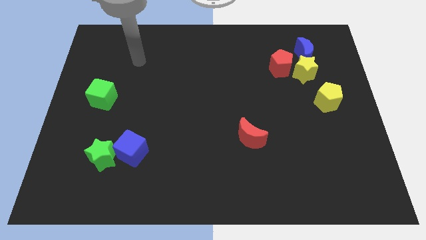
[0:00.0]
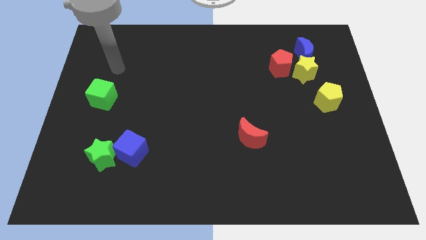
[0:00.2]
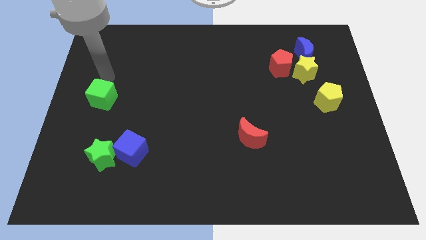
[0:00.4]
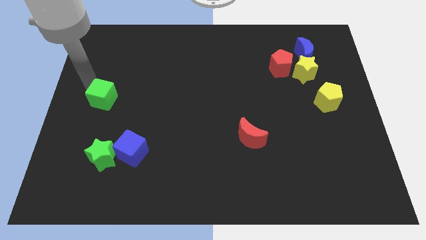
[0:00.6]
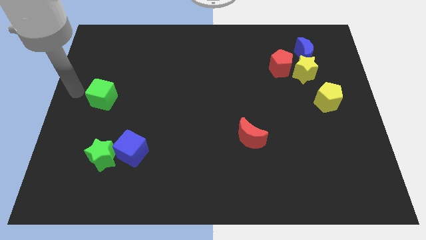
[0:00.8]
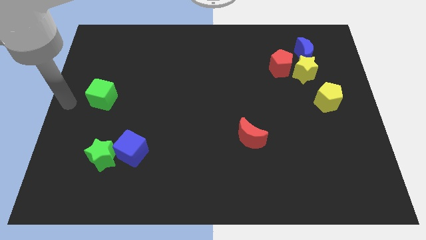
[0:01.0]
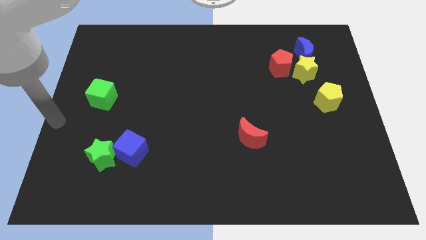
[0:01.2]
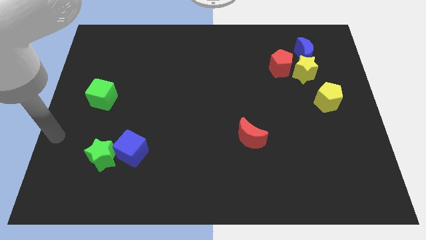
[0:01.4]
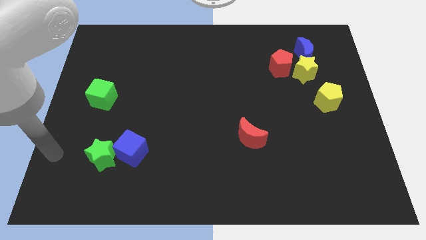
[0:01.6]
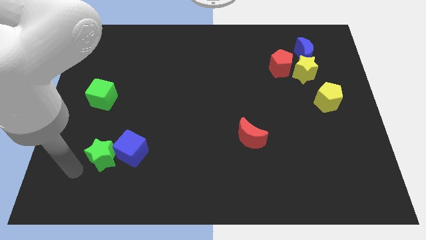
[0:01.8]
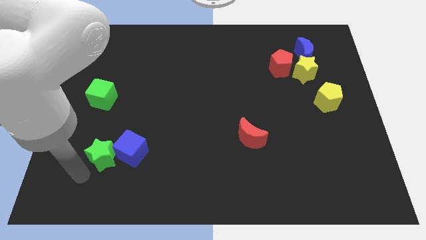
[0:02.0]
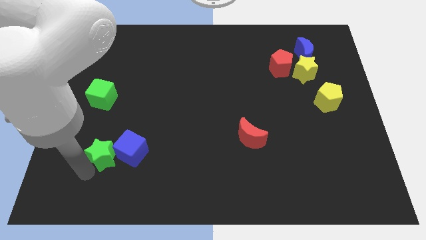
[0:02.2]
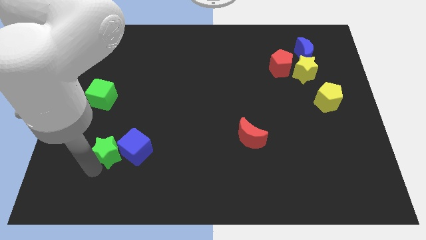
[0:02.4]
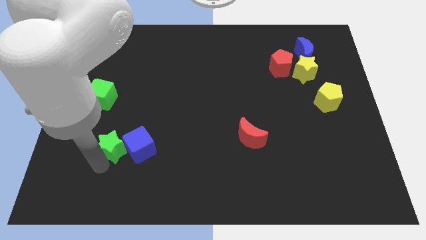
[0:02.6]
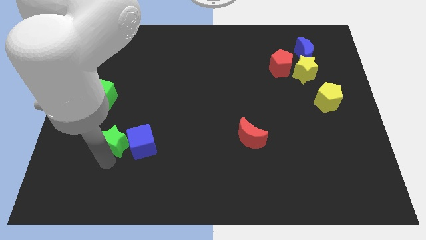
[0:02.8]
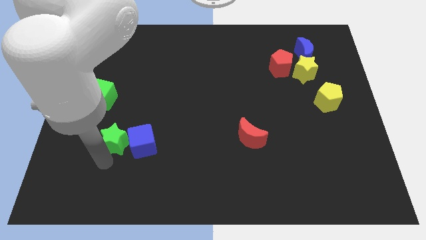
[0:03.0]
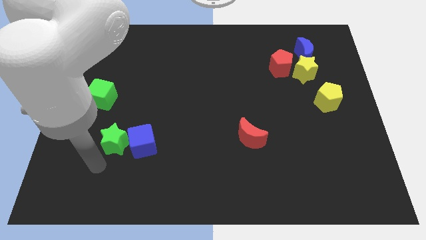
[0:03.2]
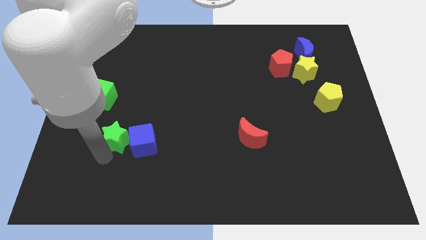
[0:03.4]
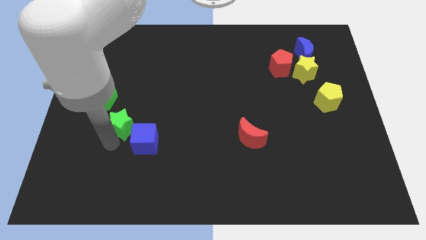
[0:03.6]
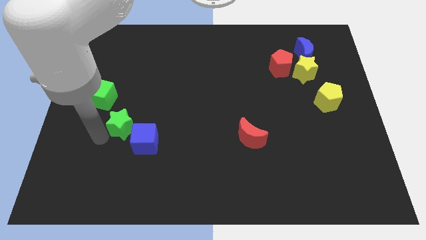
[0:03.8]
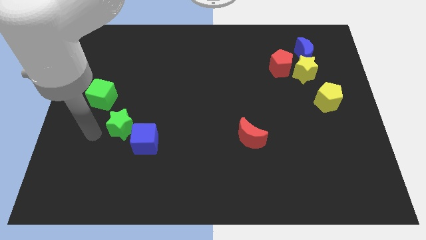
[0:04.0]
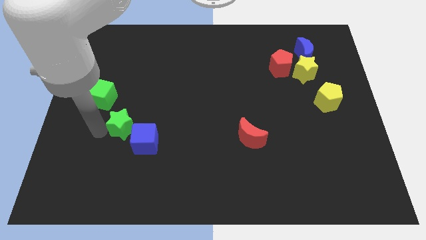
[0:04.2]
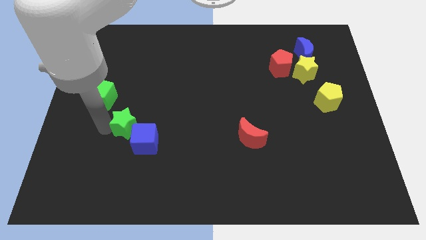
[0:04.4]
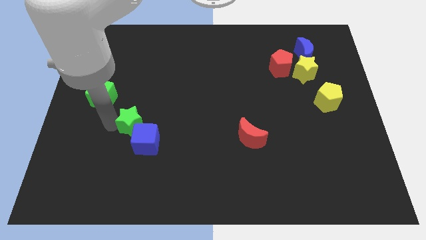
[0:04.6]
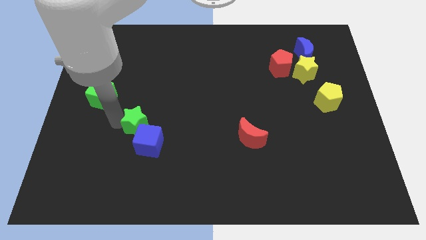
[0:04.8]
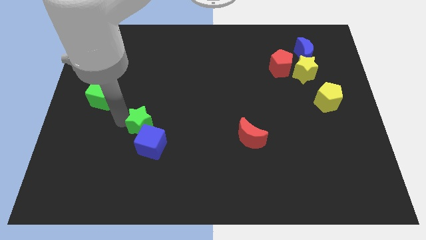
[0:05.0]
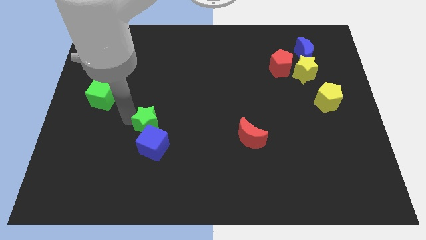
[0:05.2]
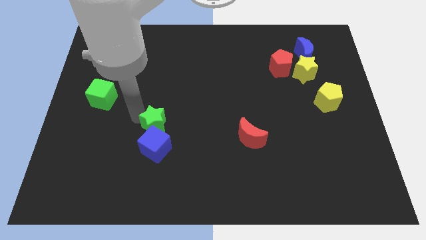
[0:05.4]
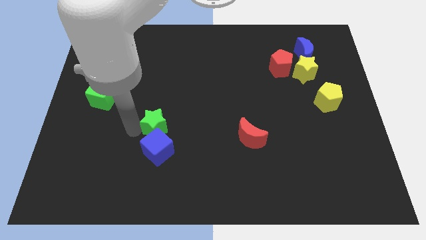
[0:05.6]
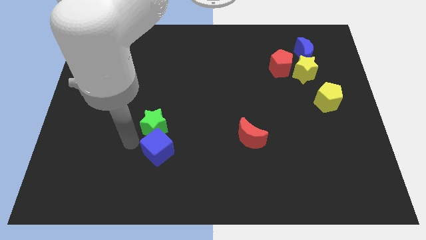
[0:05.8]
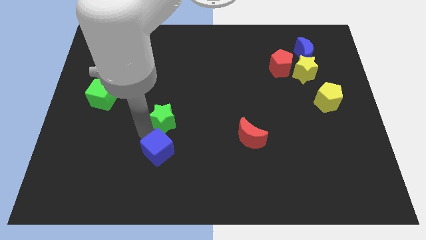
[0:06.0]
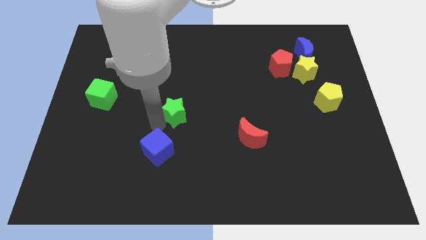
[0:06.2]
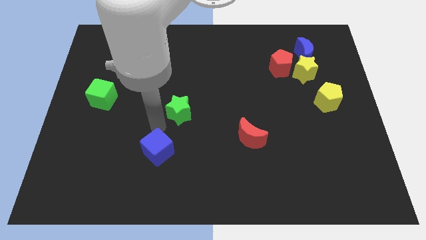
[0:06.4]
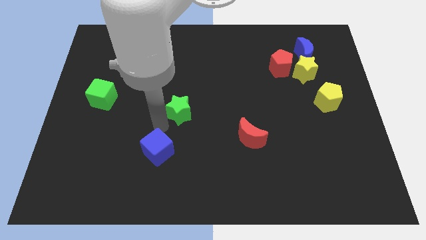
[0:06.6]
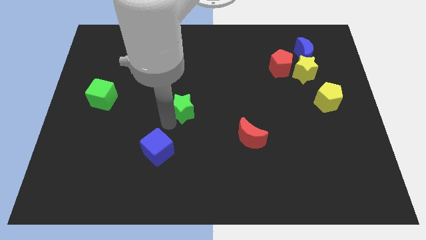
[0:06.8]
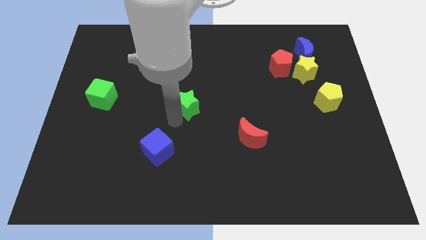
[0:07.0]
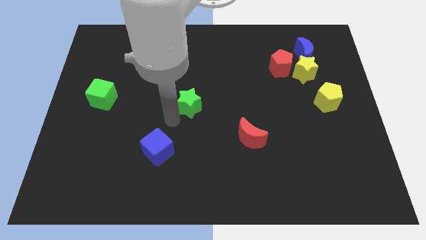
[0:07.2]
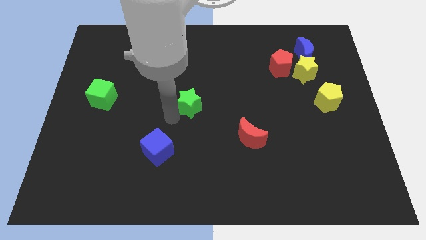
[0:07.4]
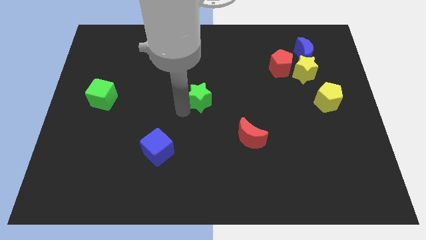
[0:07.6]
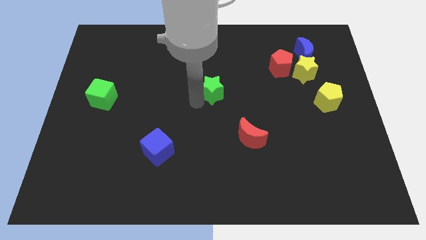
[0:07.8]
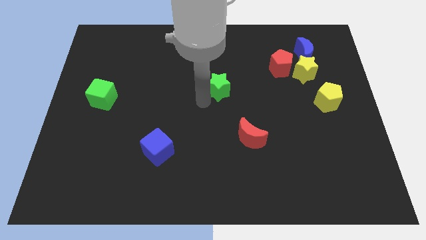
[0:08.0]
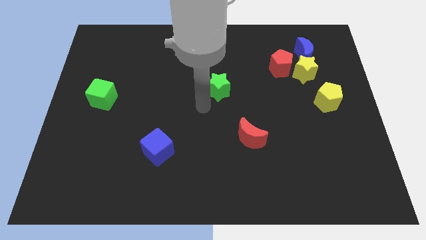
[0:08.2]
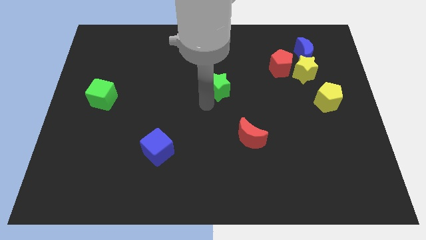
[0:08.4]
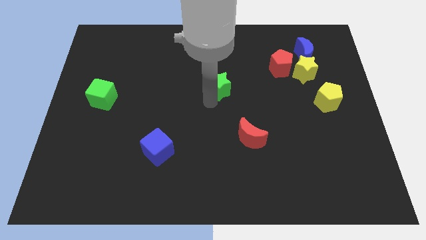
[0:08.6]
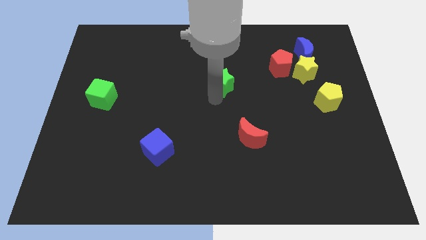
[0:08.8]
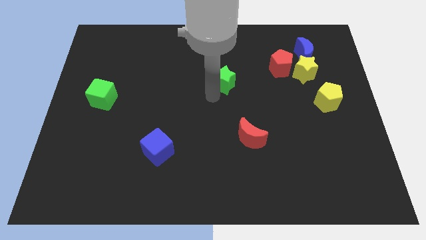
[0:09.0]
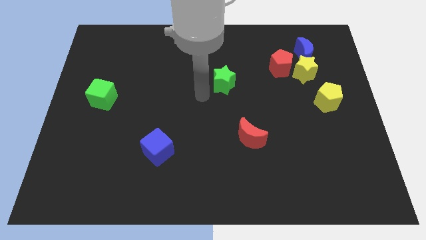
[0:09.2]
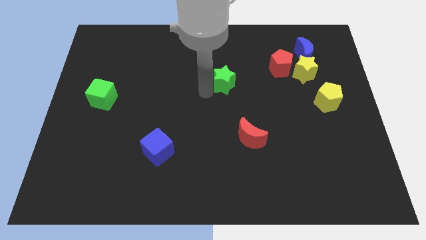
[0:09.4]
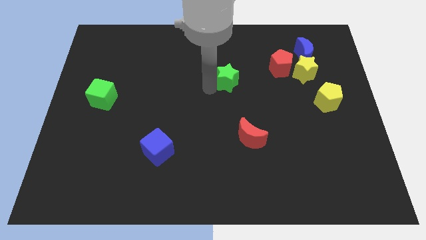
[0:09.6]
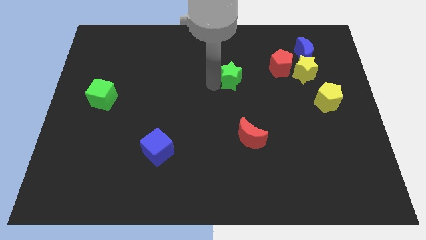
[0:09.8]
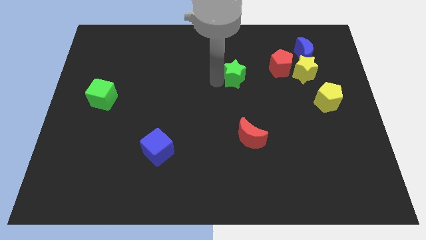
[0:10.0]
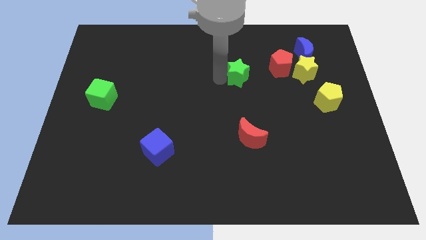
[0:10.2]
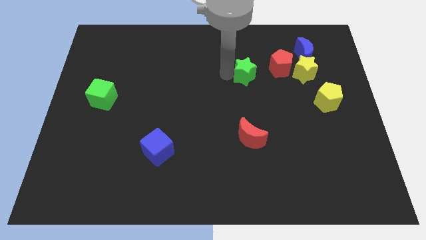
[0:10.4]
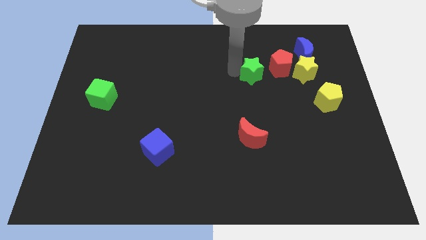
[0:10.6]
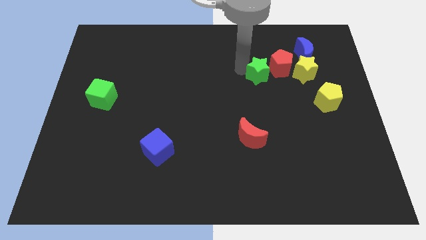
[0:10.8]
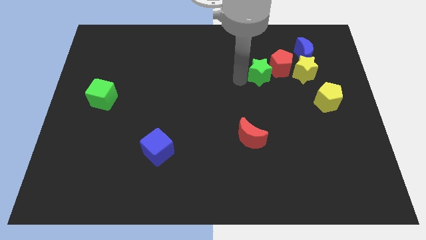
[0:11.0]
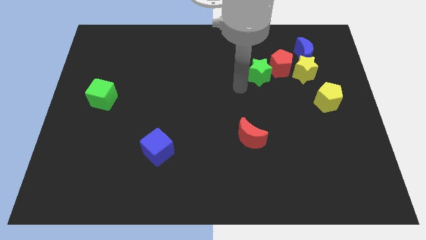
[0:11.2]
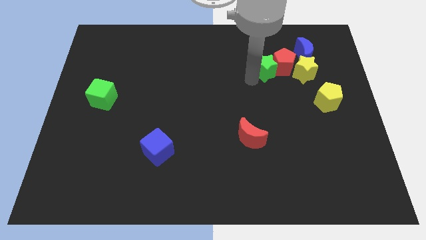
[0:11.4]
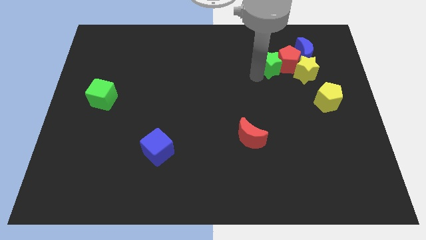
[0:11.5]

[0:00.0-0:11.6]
move the green star diagonally up and to the left of the yellow star

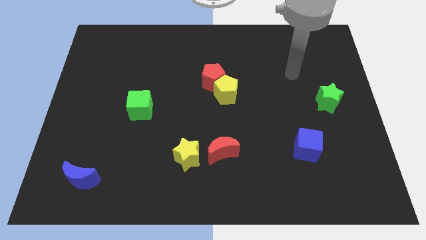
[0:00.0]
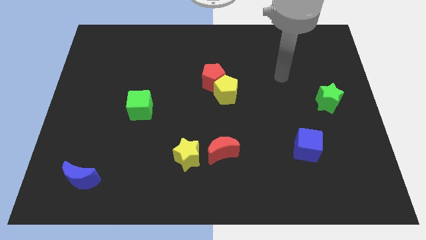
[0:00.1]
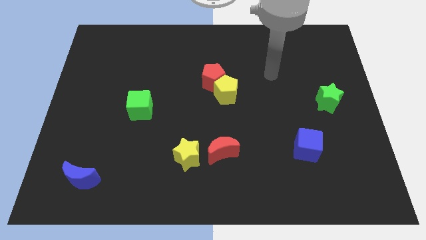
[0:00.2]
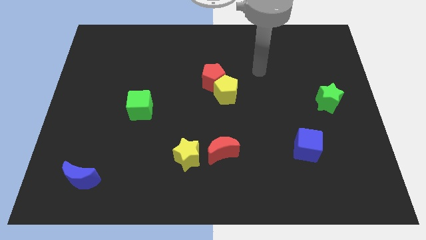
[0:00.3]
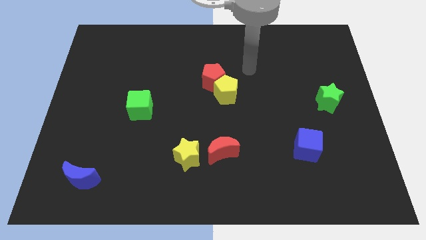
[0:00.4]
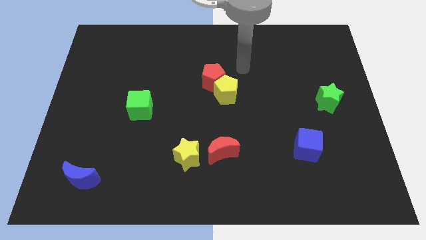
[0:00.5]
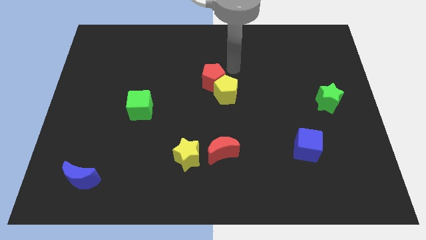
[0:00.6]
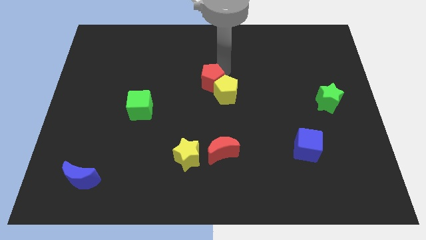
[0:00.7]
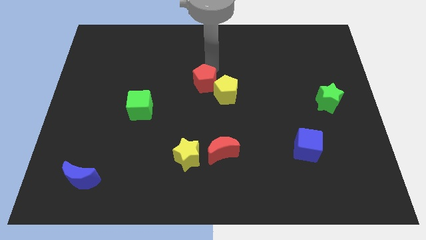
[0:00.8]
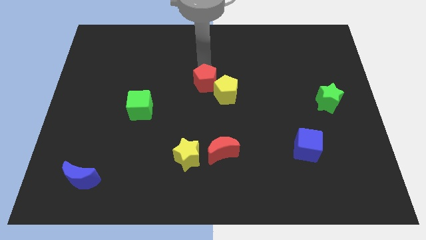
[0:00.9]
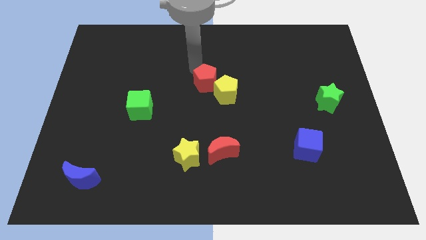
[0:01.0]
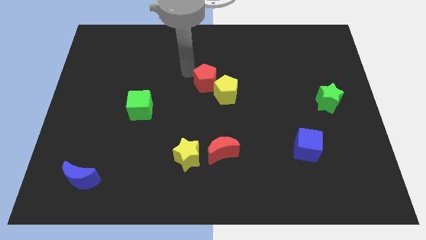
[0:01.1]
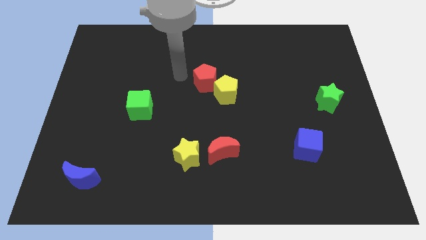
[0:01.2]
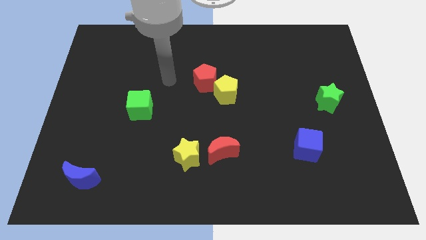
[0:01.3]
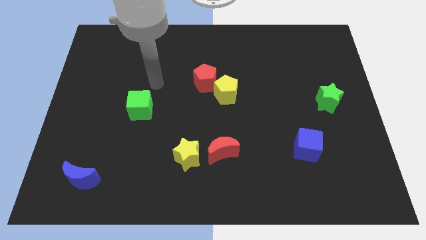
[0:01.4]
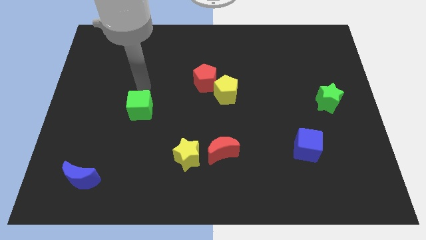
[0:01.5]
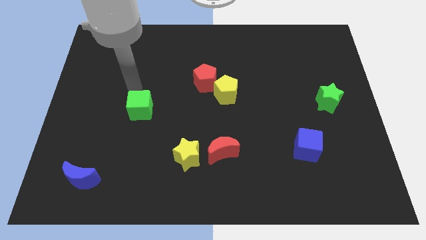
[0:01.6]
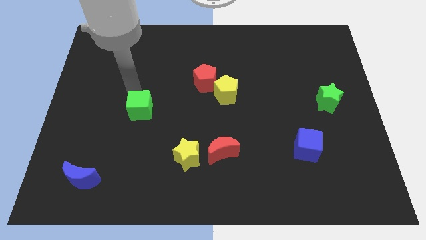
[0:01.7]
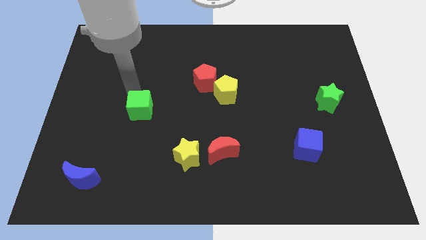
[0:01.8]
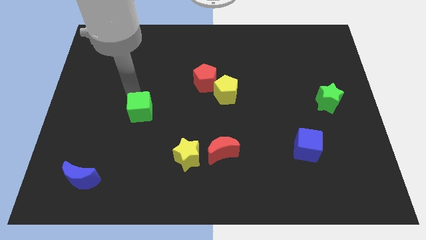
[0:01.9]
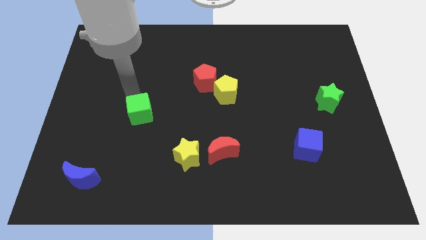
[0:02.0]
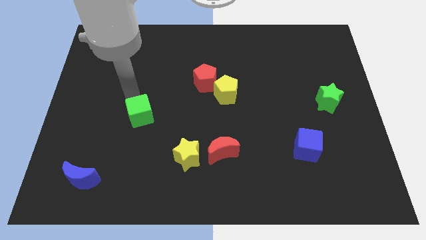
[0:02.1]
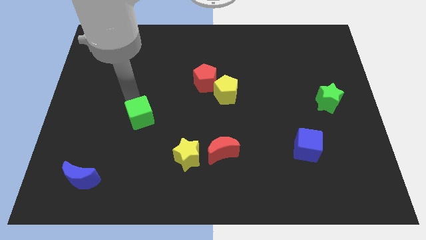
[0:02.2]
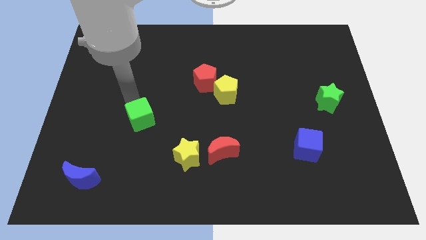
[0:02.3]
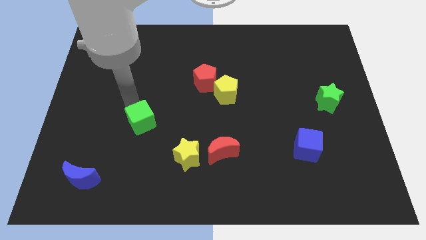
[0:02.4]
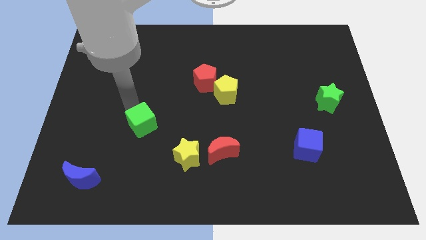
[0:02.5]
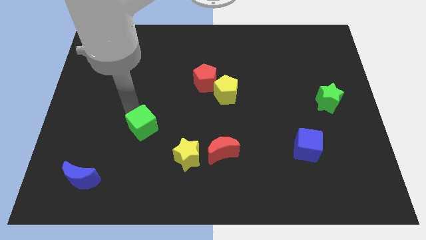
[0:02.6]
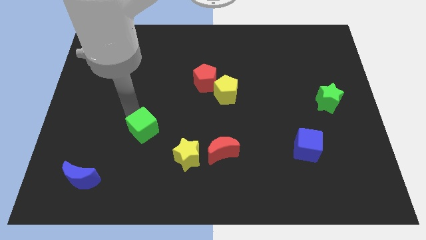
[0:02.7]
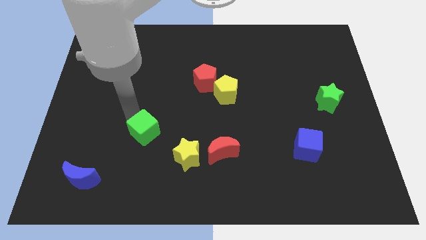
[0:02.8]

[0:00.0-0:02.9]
move the green cube to the top left of the yellow star
